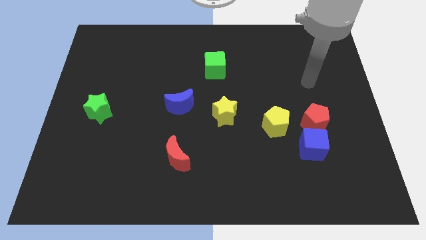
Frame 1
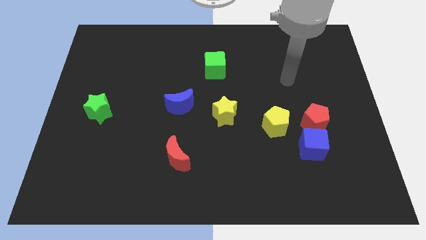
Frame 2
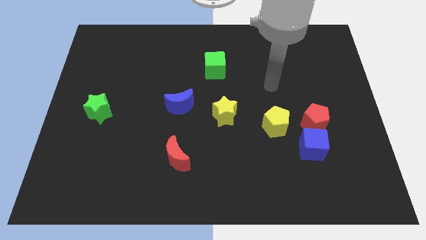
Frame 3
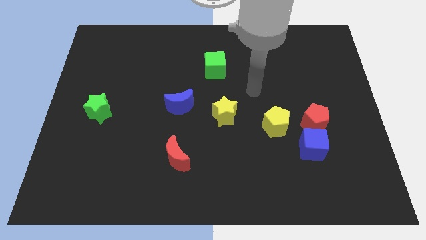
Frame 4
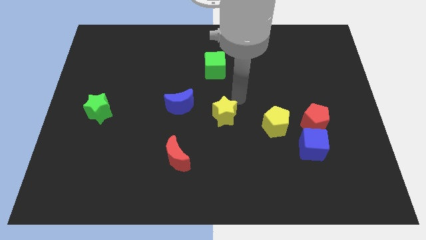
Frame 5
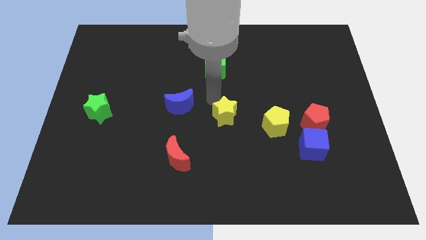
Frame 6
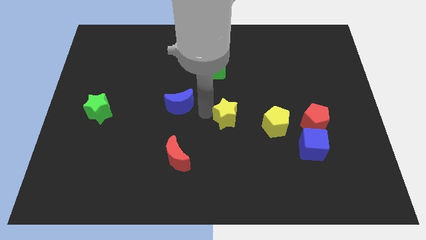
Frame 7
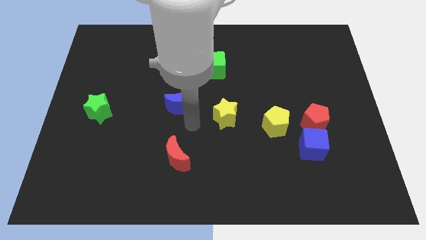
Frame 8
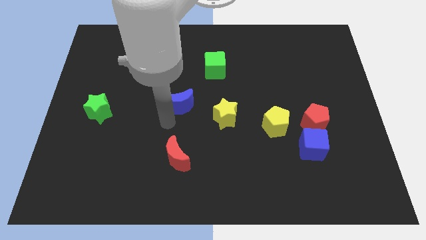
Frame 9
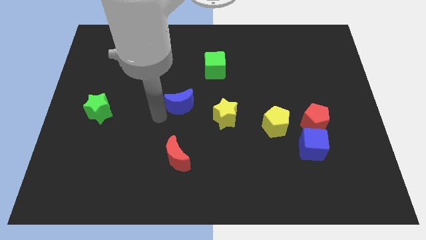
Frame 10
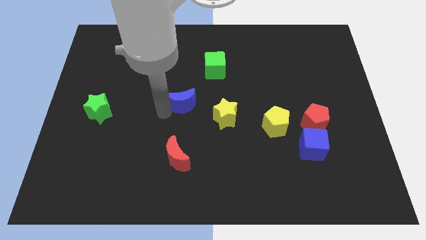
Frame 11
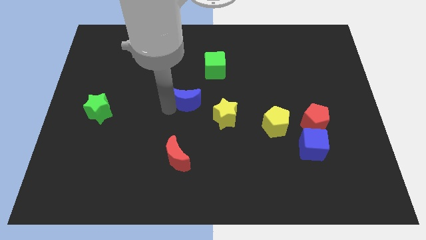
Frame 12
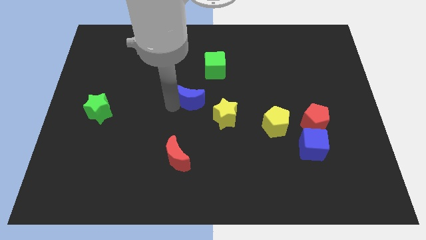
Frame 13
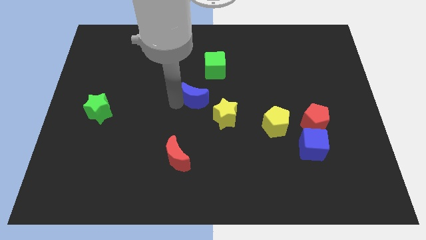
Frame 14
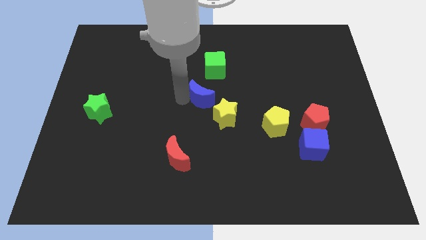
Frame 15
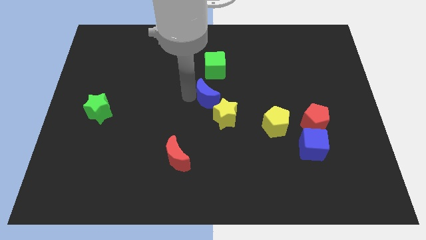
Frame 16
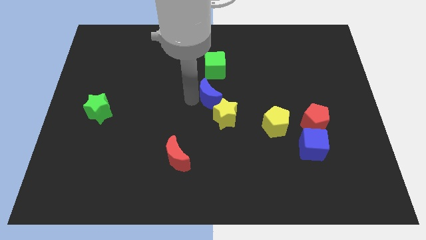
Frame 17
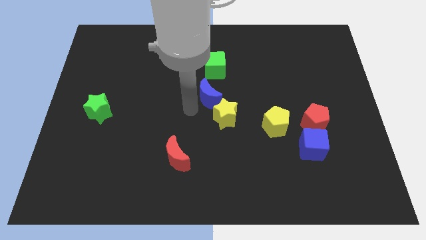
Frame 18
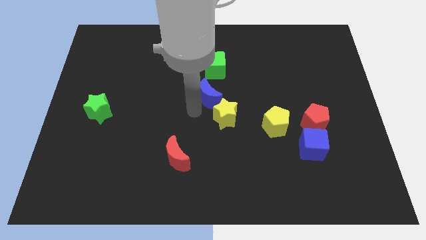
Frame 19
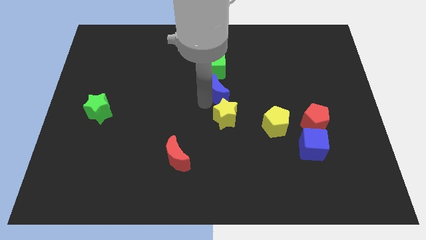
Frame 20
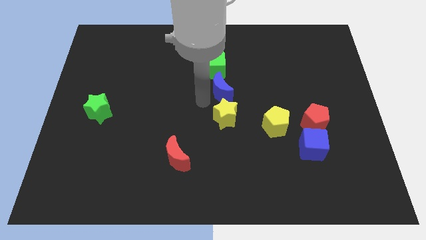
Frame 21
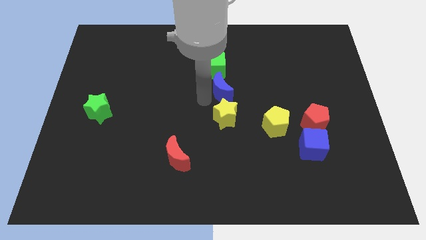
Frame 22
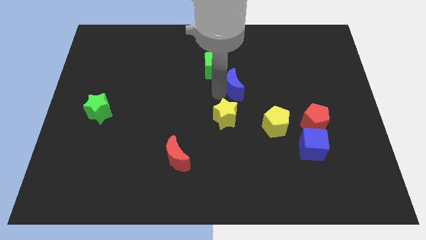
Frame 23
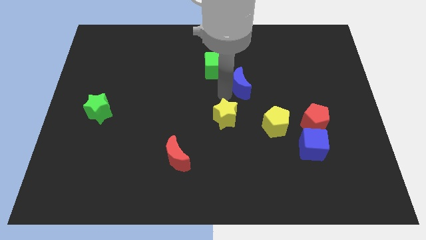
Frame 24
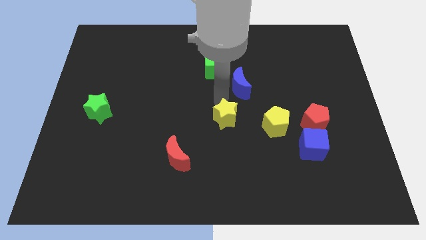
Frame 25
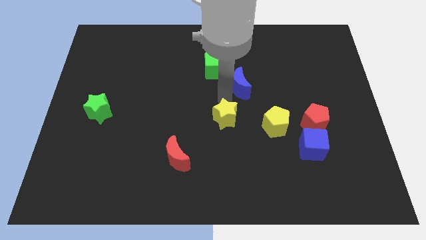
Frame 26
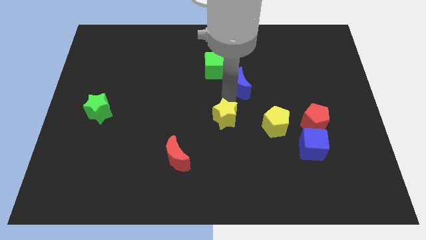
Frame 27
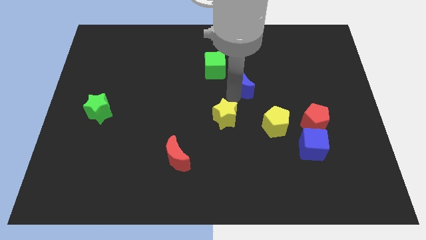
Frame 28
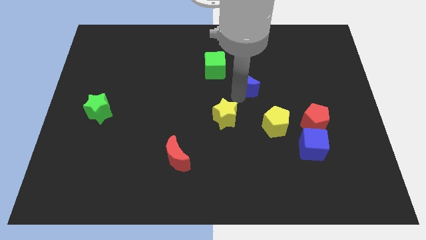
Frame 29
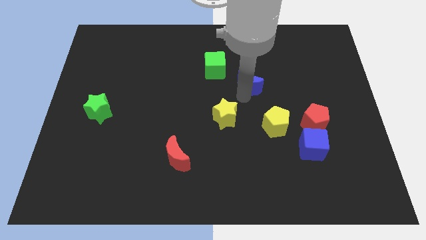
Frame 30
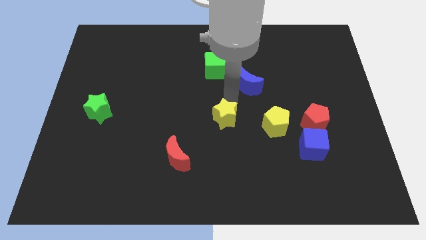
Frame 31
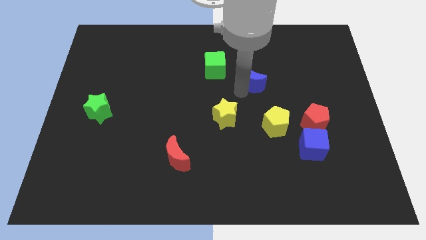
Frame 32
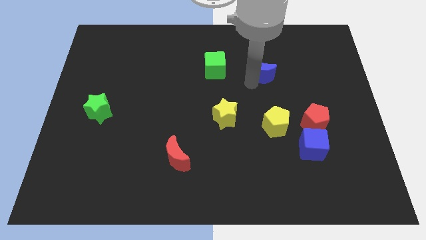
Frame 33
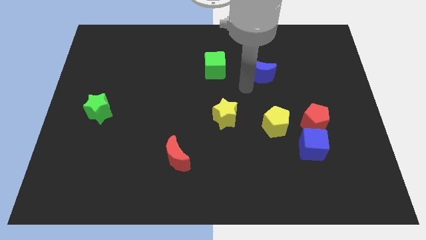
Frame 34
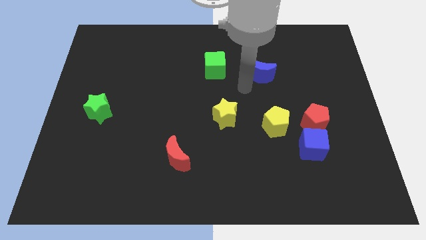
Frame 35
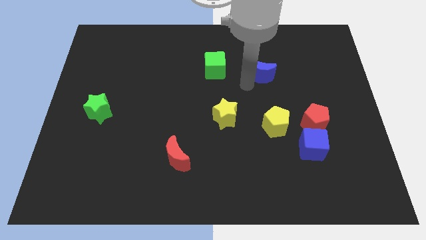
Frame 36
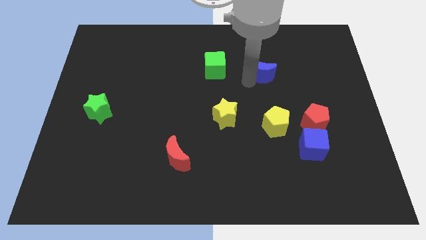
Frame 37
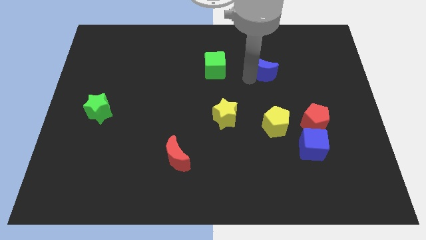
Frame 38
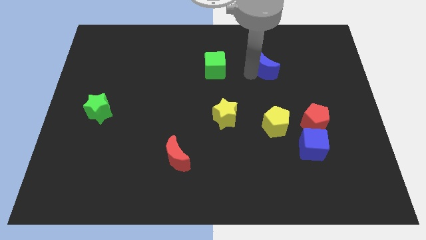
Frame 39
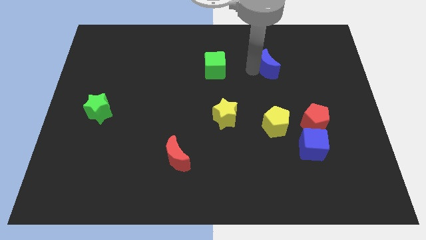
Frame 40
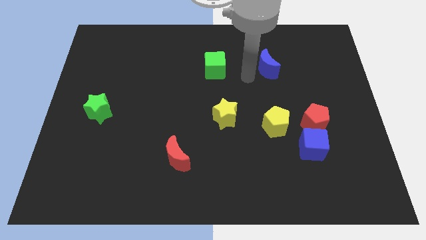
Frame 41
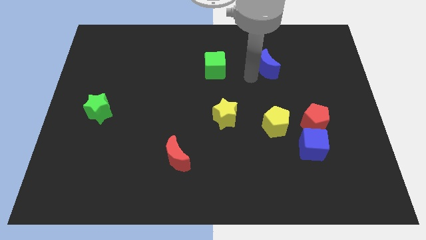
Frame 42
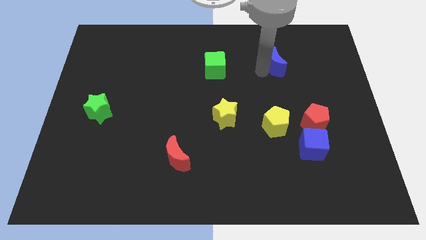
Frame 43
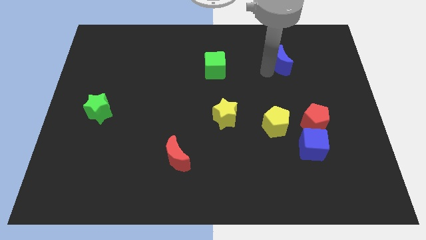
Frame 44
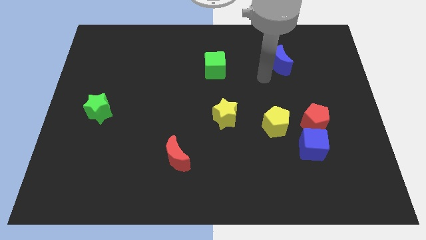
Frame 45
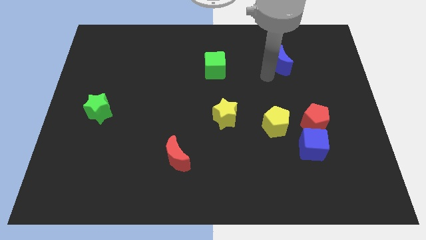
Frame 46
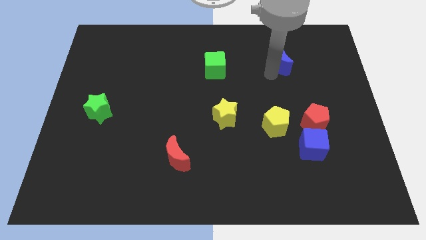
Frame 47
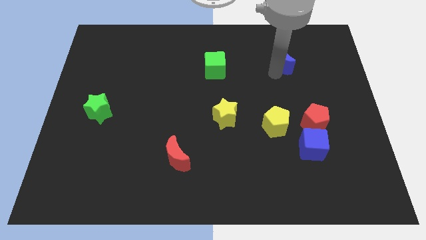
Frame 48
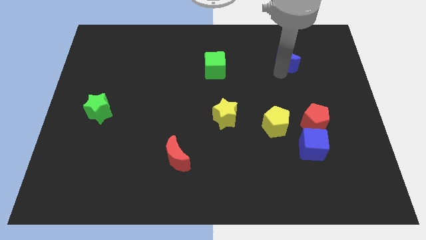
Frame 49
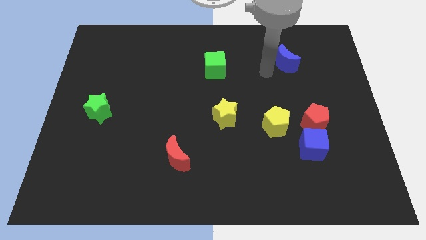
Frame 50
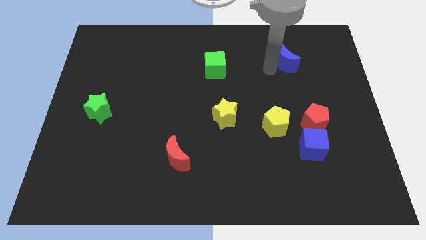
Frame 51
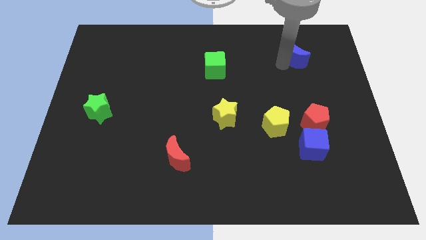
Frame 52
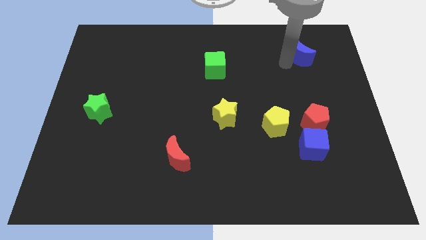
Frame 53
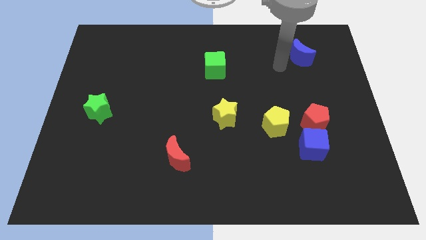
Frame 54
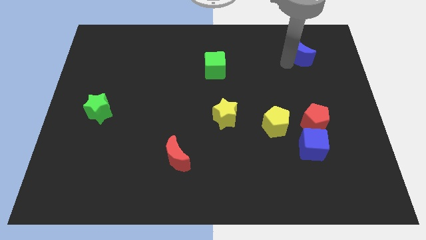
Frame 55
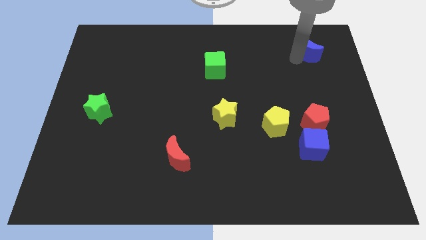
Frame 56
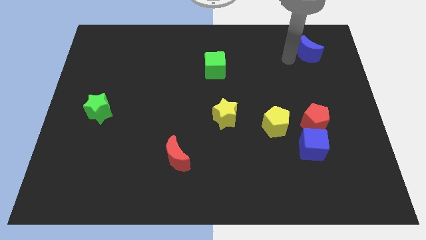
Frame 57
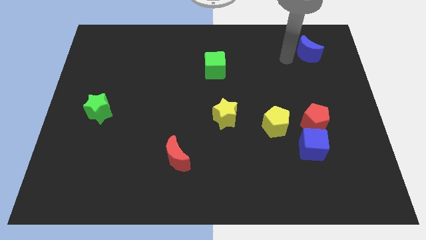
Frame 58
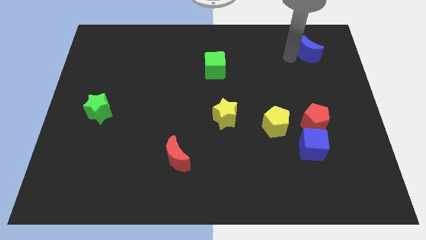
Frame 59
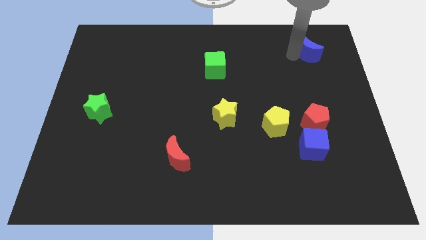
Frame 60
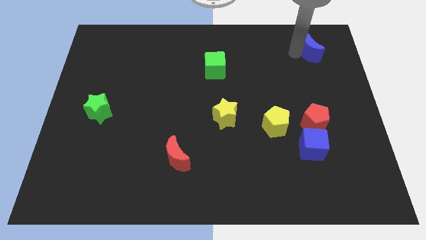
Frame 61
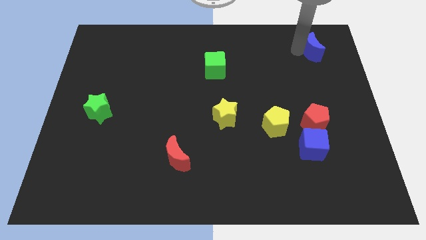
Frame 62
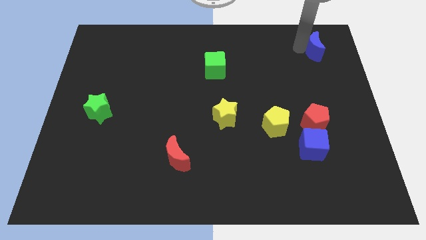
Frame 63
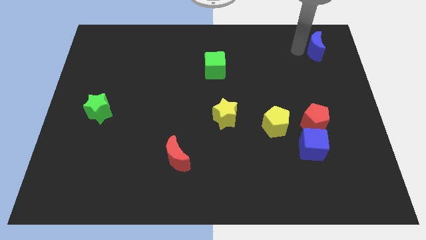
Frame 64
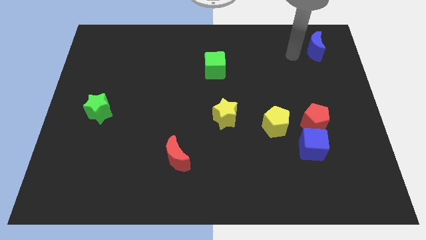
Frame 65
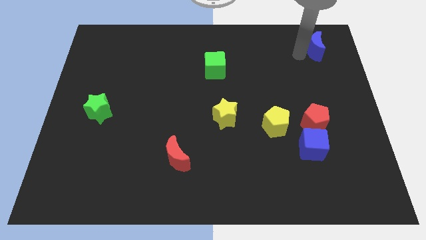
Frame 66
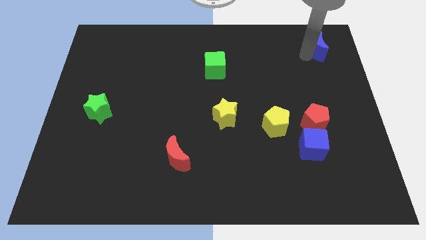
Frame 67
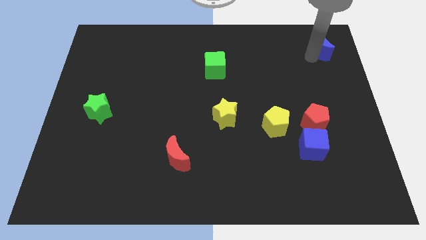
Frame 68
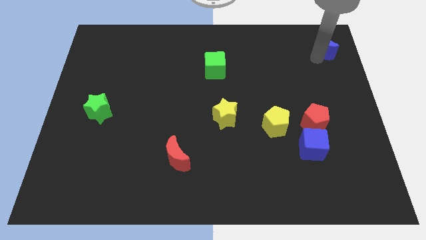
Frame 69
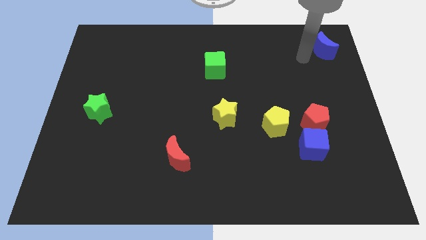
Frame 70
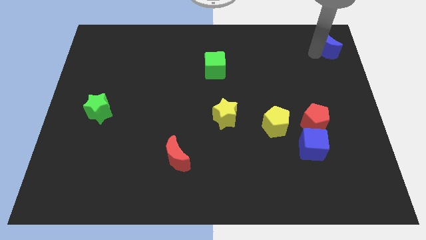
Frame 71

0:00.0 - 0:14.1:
move the blue moon to the top right corner

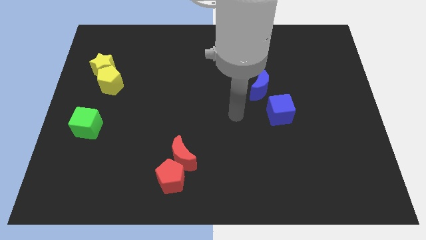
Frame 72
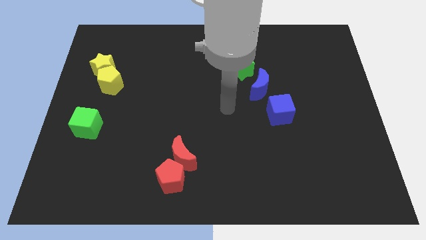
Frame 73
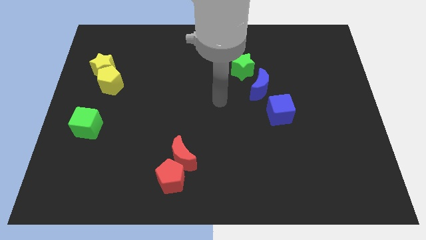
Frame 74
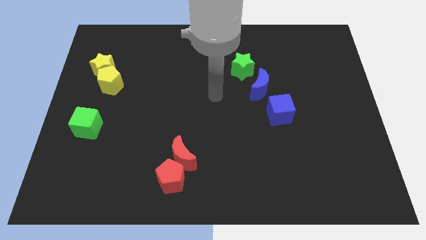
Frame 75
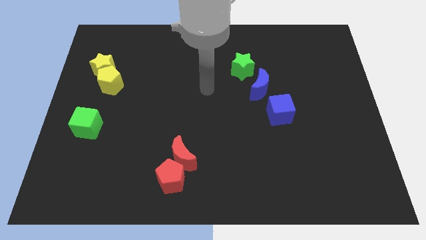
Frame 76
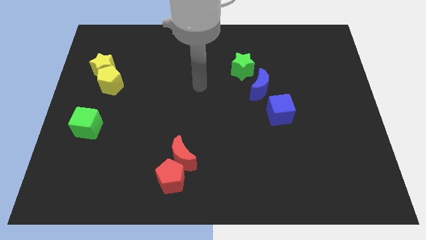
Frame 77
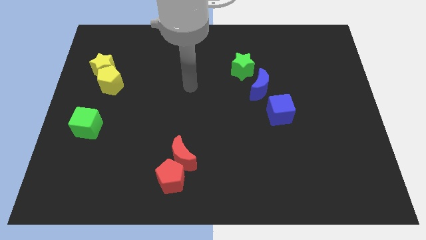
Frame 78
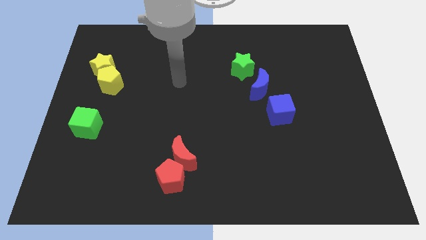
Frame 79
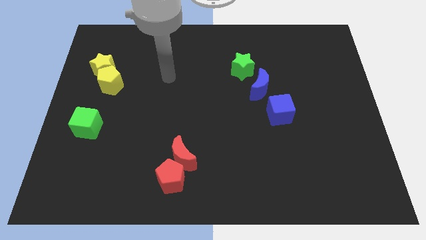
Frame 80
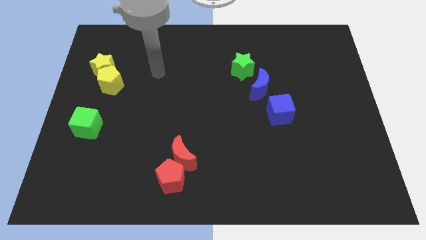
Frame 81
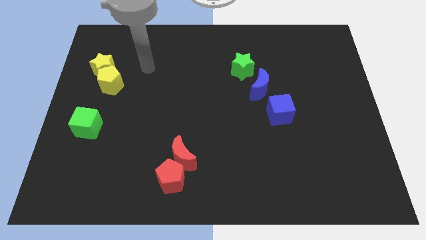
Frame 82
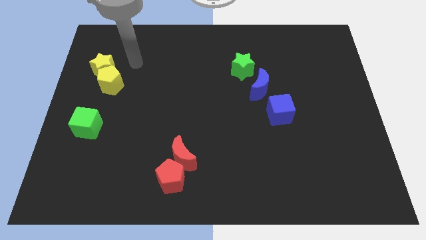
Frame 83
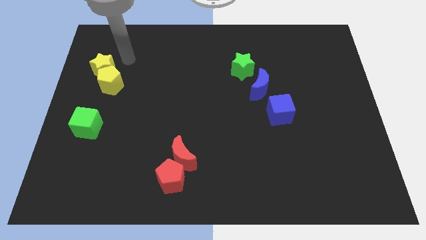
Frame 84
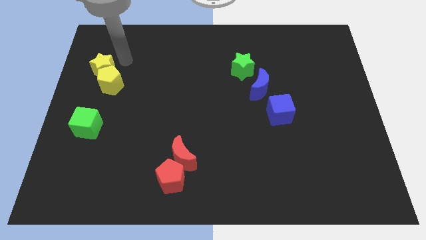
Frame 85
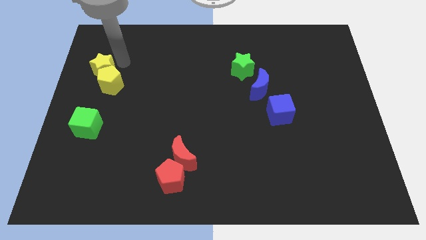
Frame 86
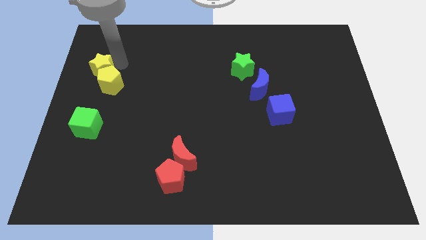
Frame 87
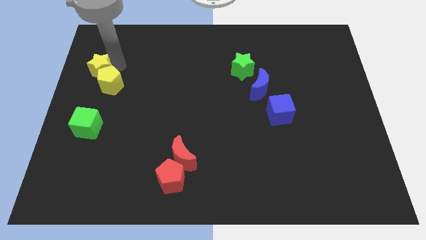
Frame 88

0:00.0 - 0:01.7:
slide the yellow star to the center left
